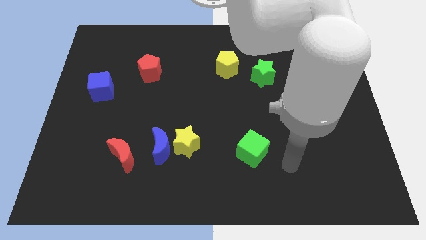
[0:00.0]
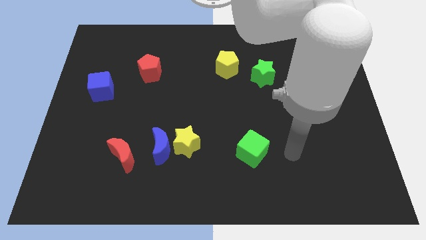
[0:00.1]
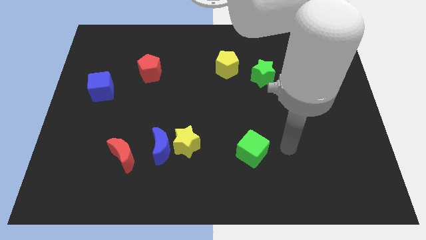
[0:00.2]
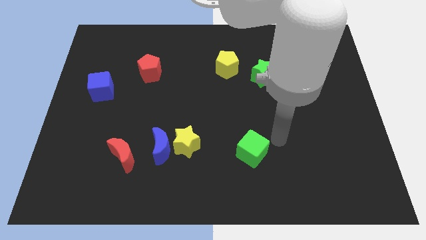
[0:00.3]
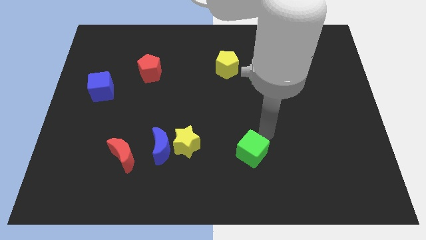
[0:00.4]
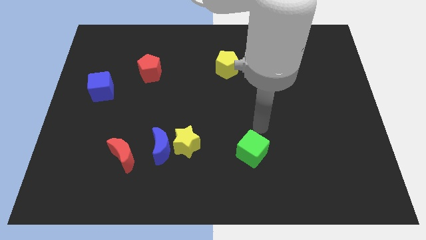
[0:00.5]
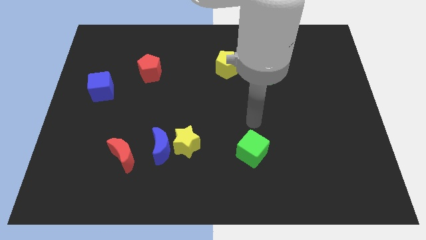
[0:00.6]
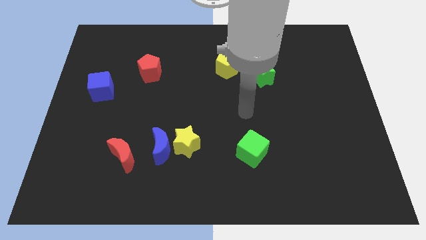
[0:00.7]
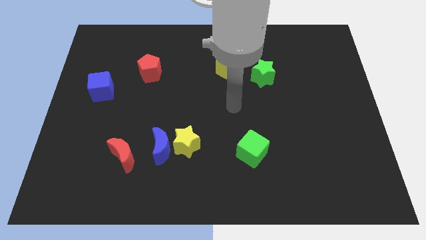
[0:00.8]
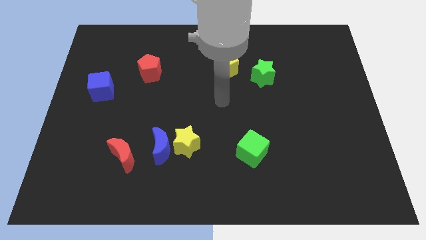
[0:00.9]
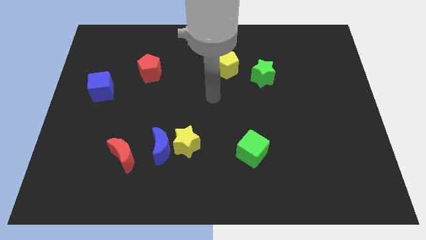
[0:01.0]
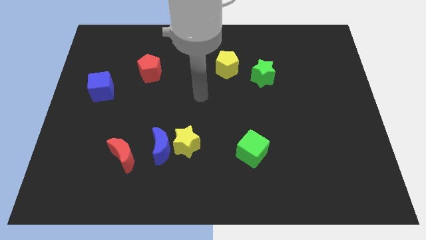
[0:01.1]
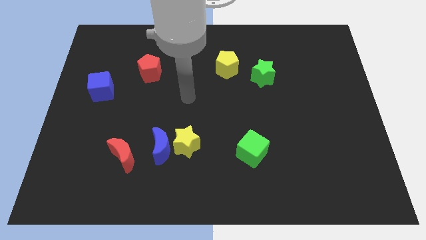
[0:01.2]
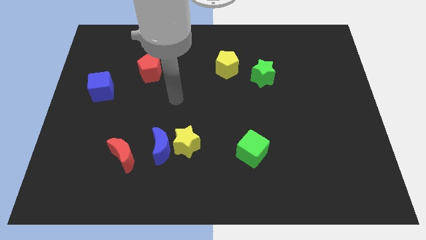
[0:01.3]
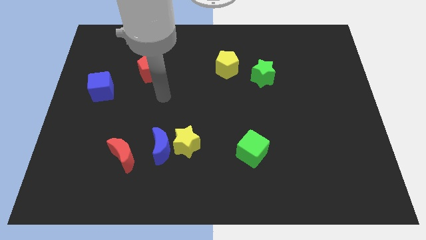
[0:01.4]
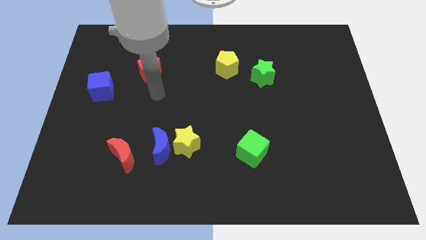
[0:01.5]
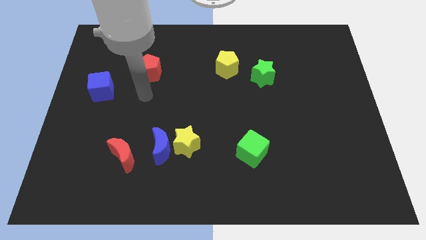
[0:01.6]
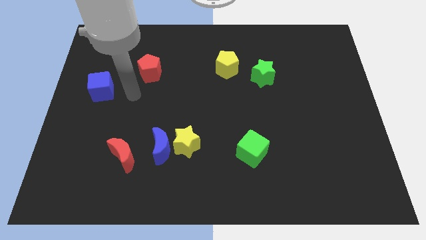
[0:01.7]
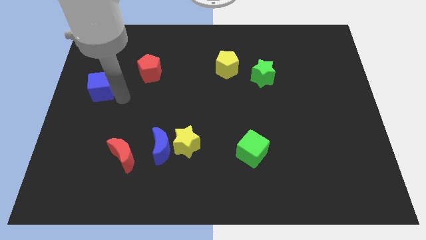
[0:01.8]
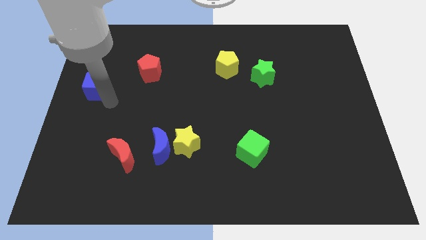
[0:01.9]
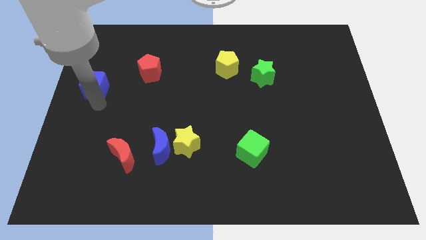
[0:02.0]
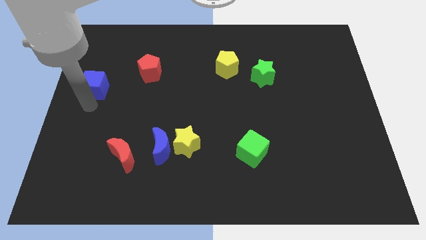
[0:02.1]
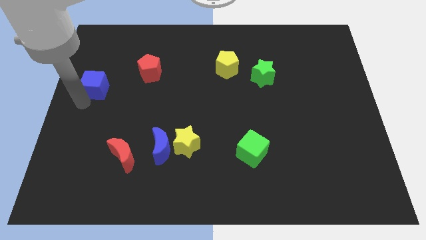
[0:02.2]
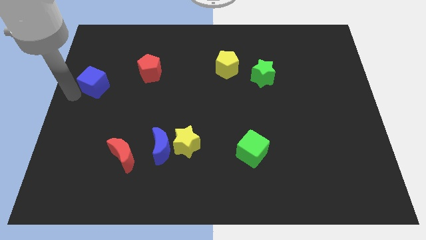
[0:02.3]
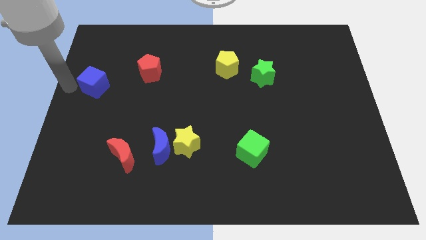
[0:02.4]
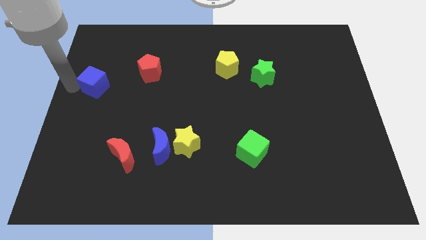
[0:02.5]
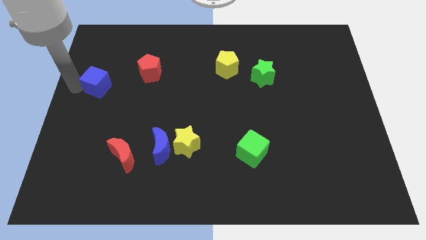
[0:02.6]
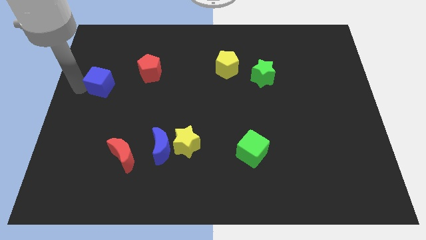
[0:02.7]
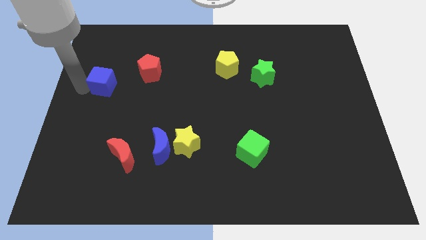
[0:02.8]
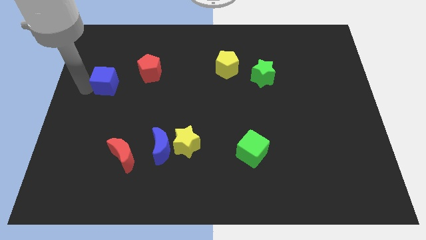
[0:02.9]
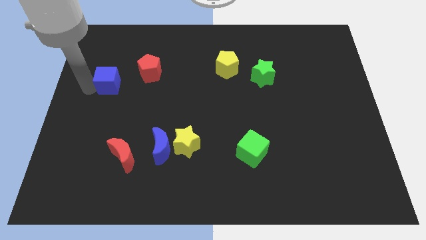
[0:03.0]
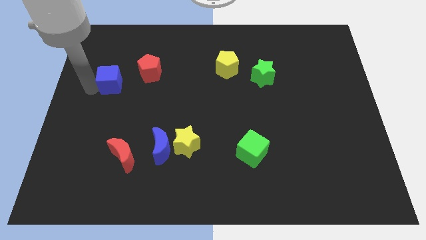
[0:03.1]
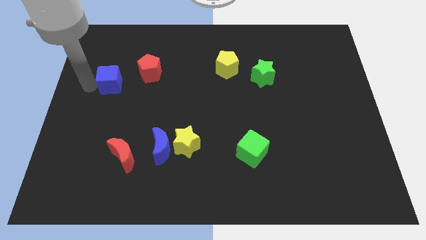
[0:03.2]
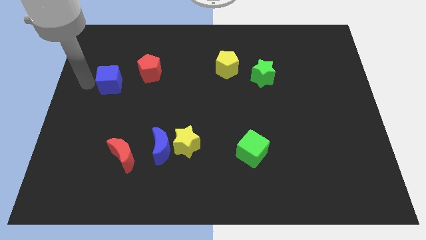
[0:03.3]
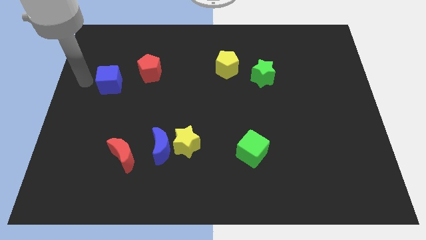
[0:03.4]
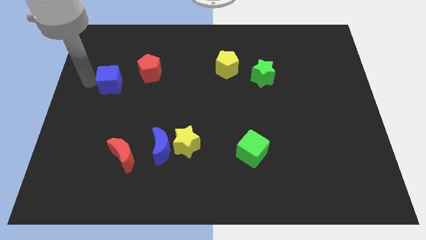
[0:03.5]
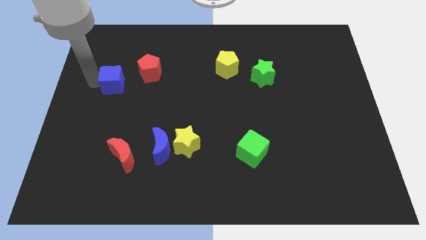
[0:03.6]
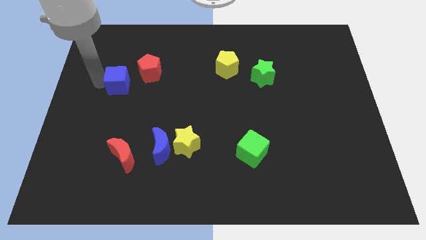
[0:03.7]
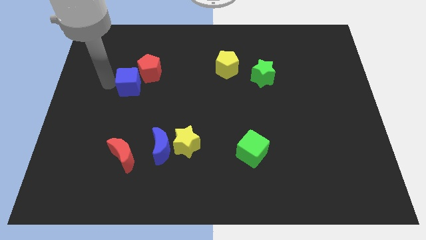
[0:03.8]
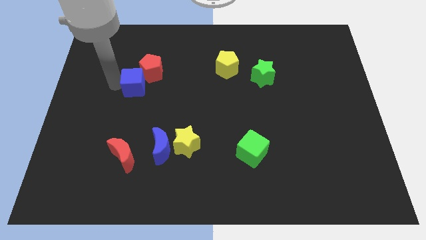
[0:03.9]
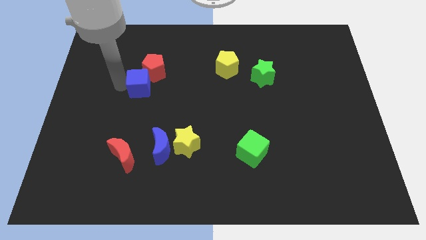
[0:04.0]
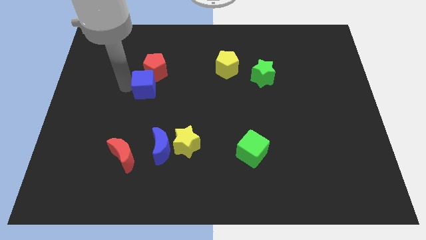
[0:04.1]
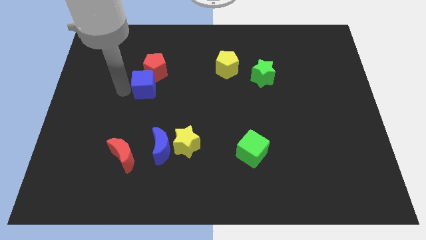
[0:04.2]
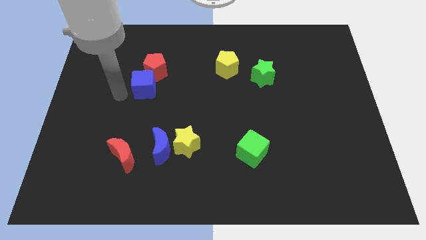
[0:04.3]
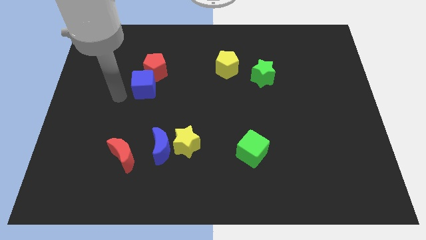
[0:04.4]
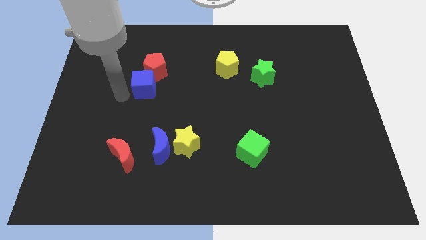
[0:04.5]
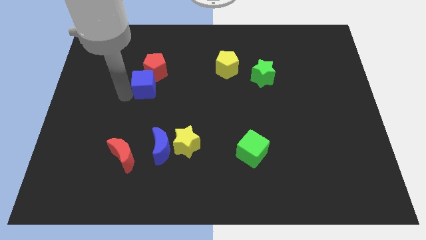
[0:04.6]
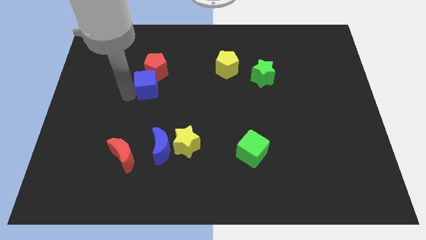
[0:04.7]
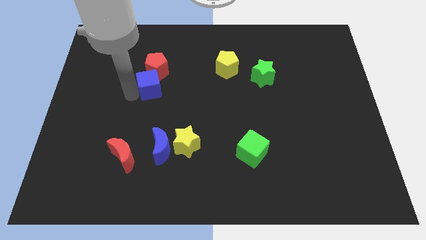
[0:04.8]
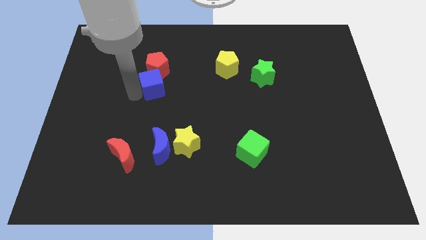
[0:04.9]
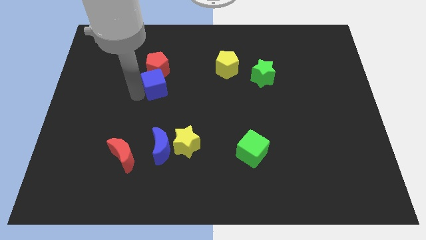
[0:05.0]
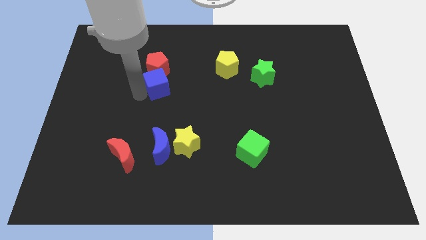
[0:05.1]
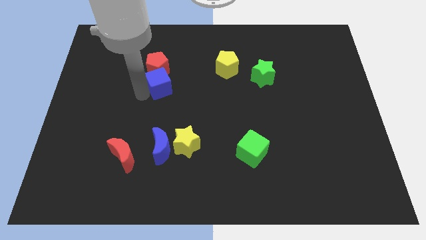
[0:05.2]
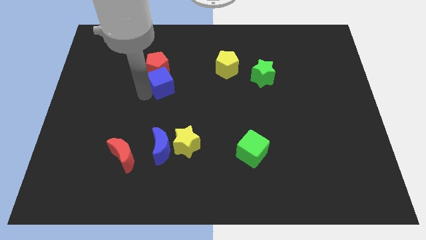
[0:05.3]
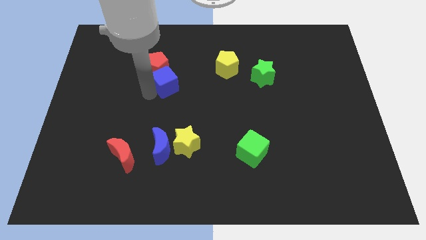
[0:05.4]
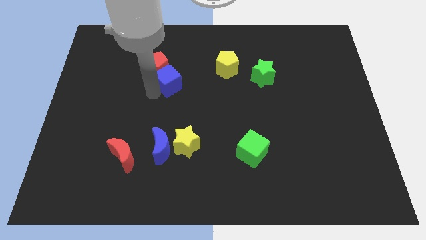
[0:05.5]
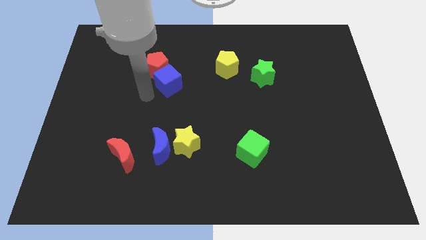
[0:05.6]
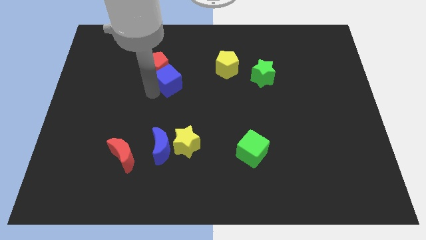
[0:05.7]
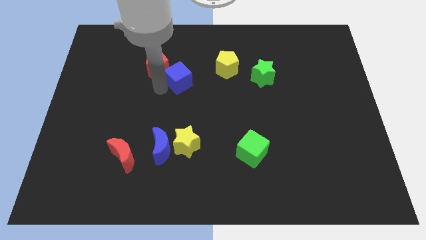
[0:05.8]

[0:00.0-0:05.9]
move the blue cube right of the red pentagon

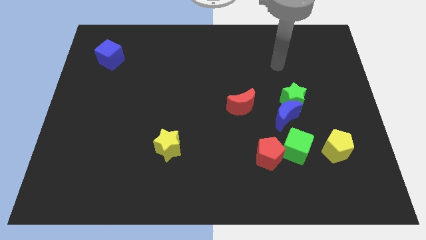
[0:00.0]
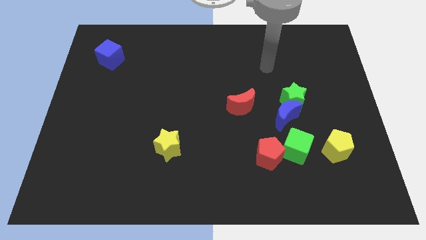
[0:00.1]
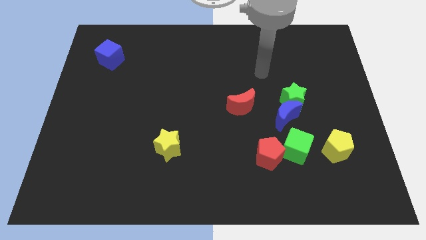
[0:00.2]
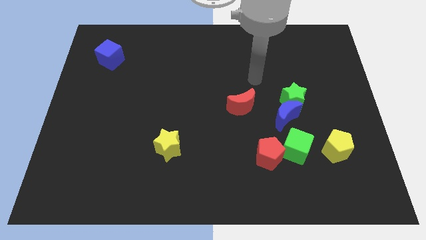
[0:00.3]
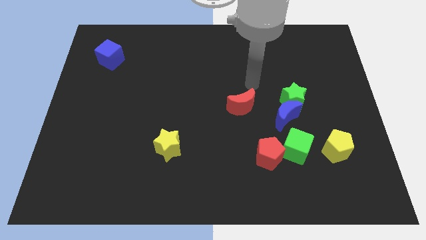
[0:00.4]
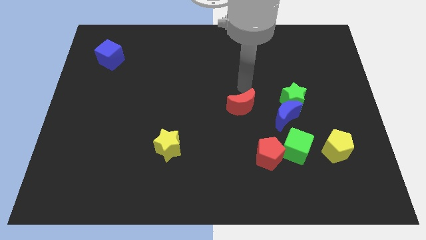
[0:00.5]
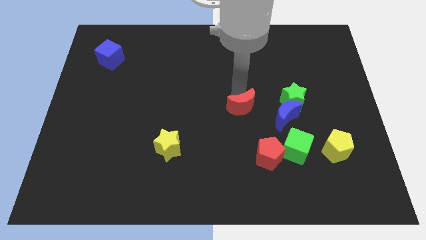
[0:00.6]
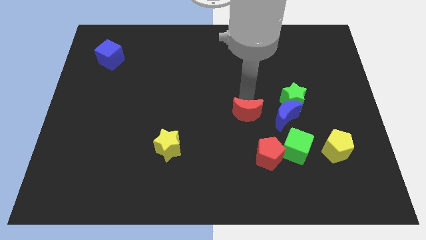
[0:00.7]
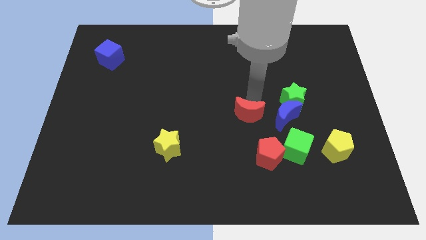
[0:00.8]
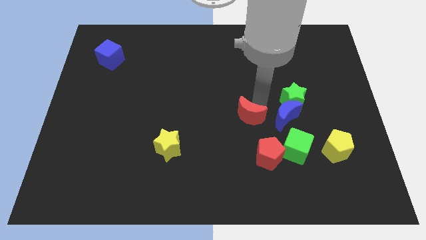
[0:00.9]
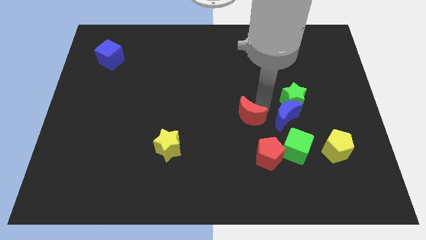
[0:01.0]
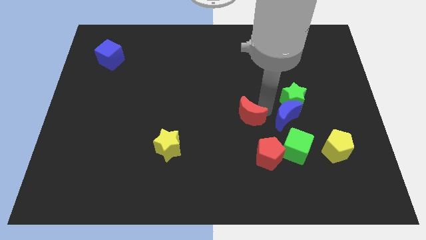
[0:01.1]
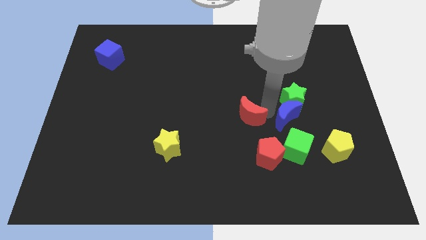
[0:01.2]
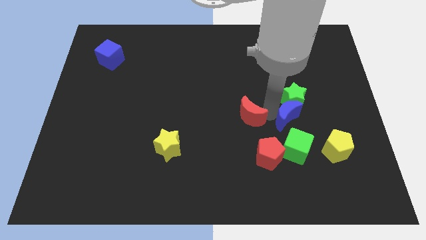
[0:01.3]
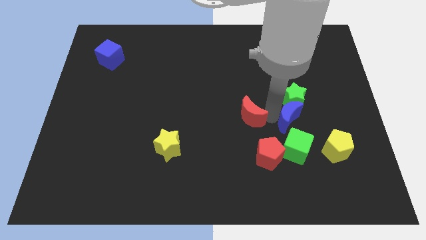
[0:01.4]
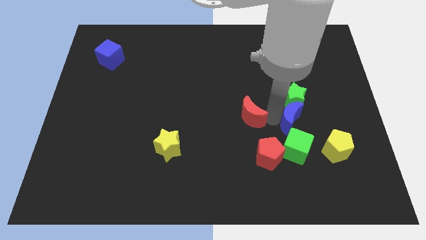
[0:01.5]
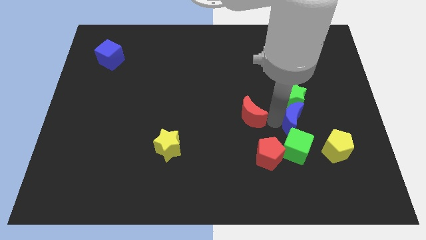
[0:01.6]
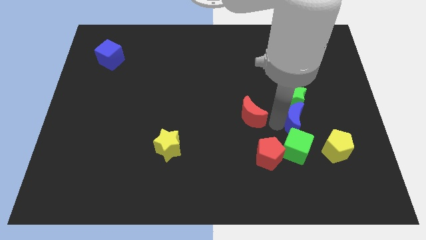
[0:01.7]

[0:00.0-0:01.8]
slide the blue moon to the top right of the green cube
